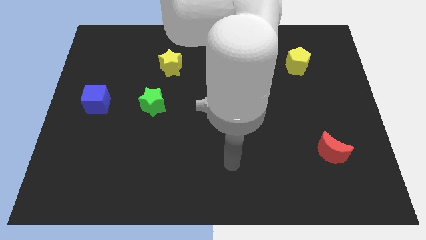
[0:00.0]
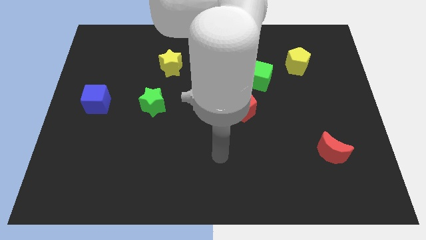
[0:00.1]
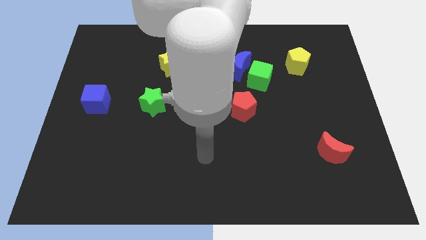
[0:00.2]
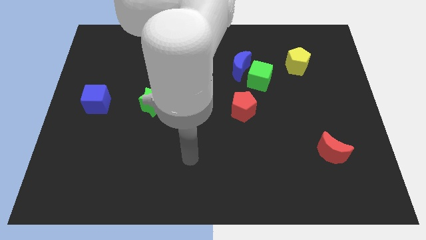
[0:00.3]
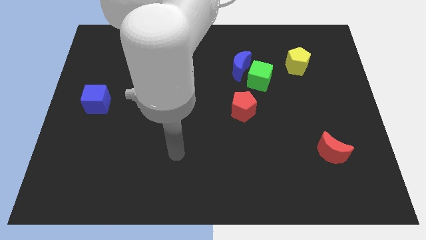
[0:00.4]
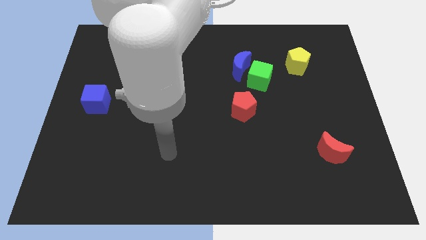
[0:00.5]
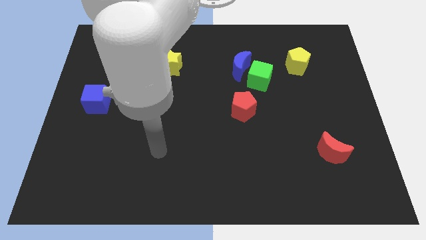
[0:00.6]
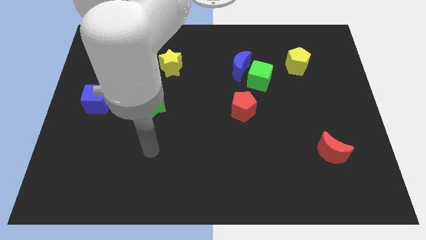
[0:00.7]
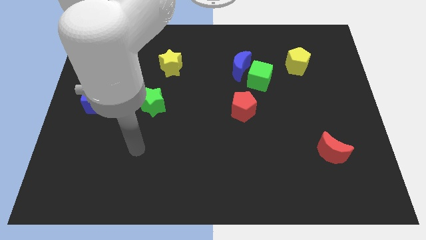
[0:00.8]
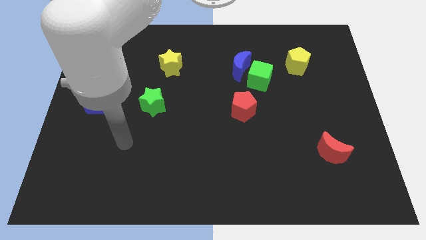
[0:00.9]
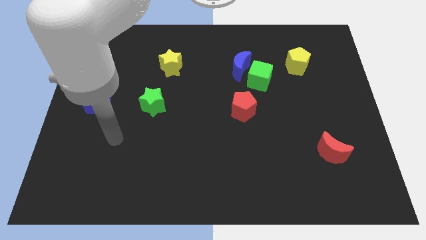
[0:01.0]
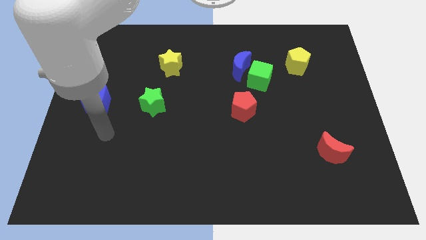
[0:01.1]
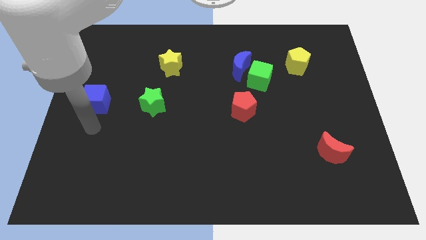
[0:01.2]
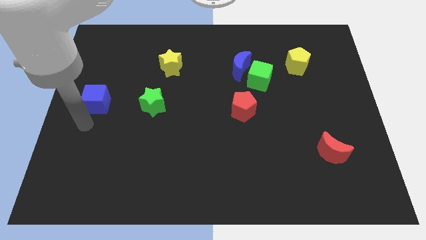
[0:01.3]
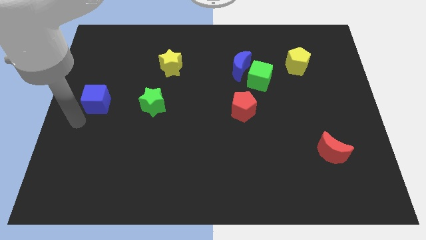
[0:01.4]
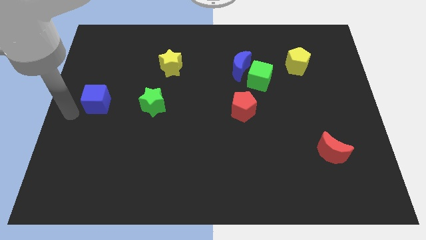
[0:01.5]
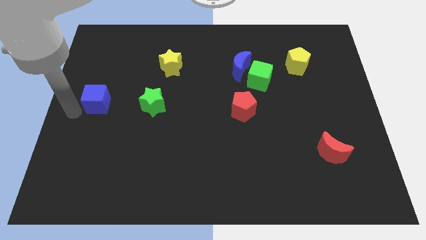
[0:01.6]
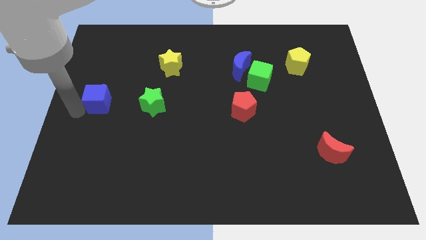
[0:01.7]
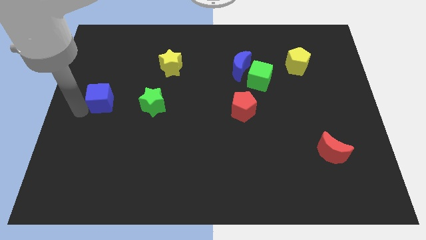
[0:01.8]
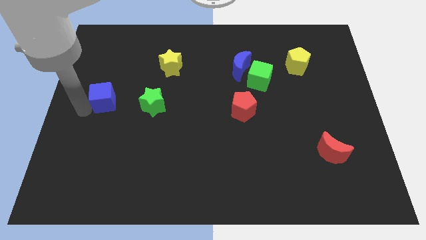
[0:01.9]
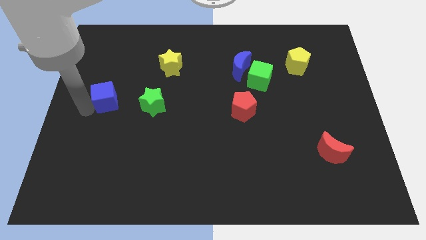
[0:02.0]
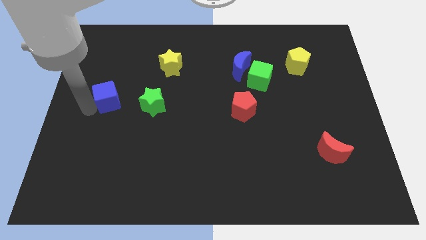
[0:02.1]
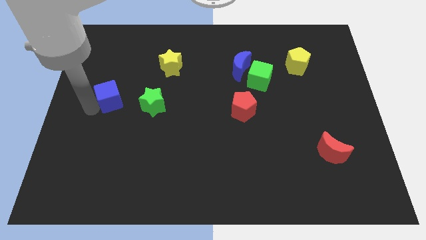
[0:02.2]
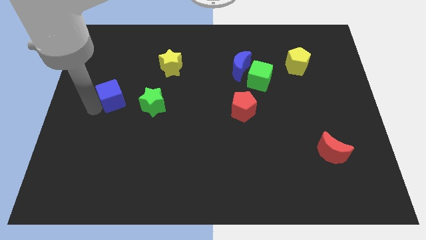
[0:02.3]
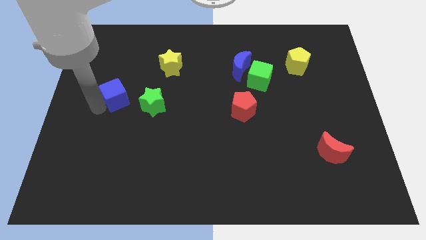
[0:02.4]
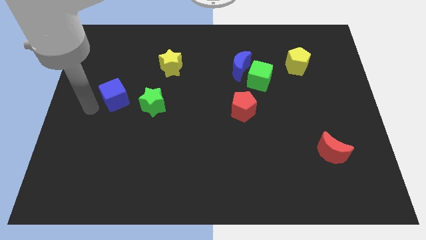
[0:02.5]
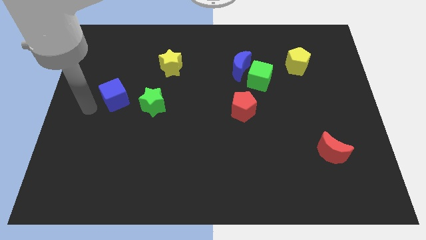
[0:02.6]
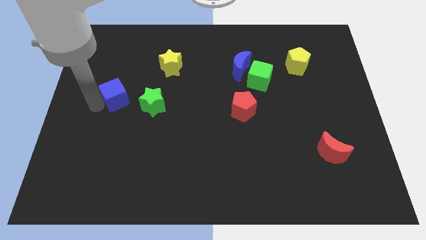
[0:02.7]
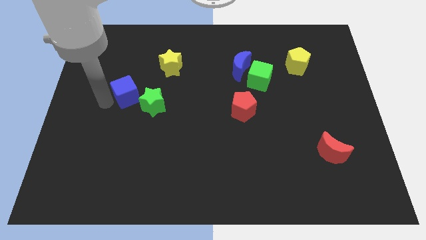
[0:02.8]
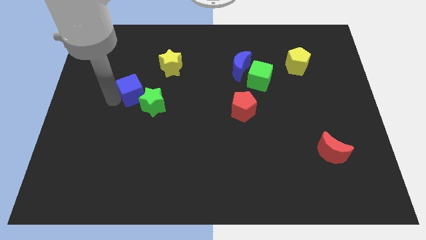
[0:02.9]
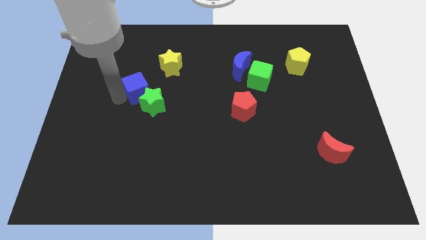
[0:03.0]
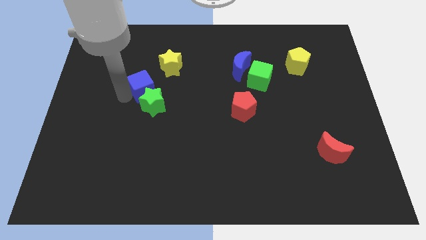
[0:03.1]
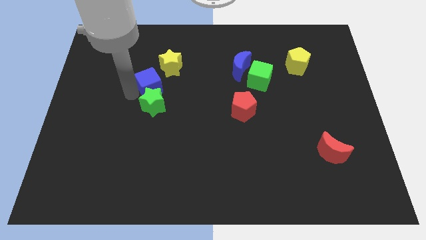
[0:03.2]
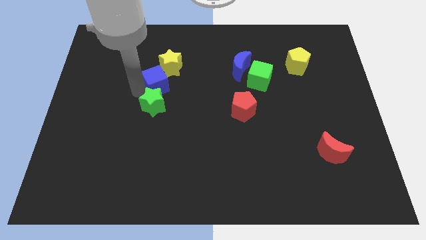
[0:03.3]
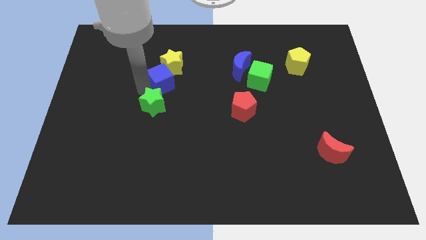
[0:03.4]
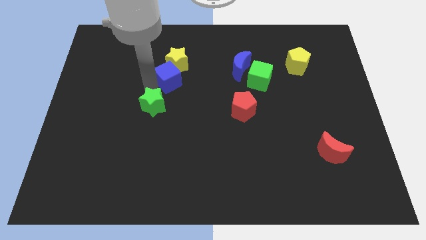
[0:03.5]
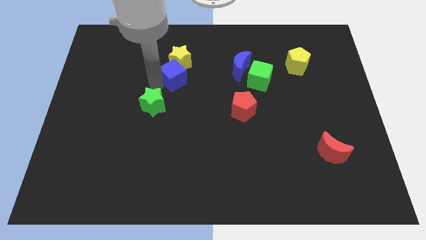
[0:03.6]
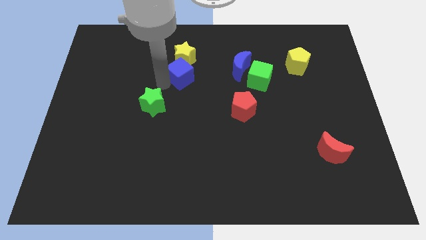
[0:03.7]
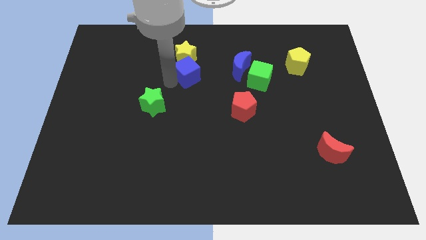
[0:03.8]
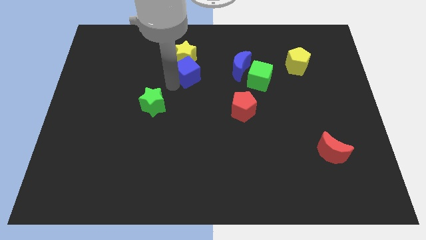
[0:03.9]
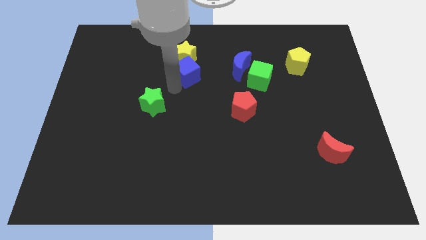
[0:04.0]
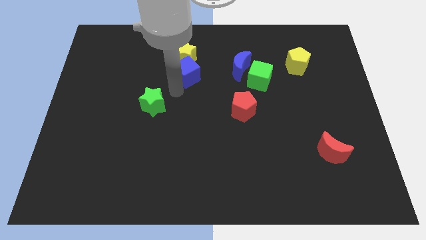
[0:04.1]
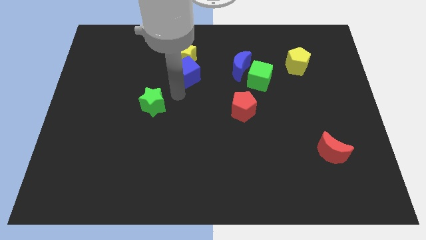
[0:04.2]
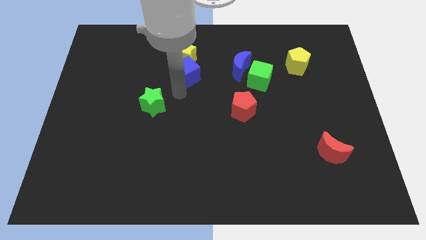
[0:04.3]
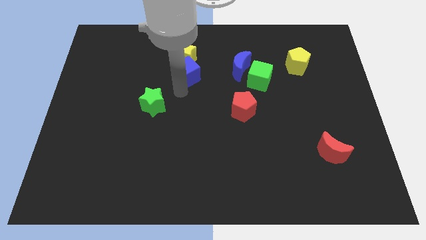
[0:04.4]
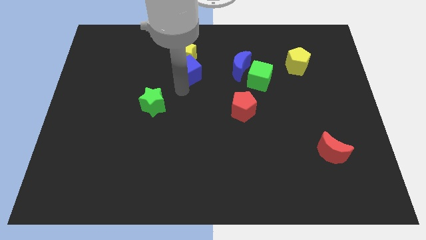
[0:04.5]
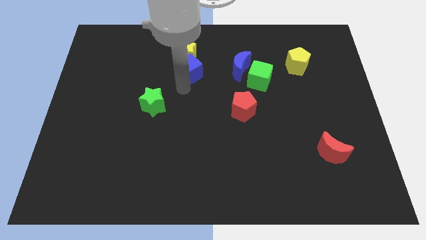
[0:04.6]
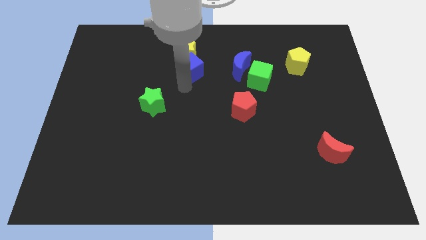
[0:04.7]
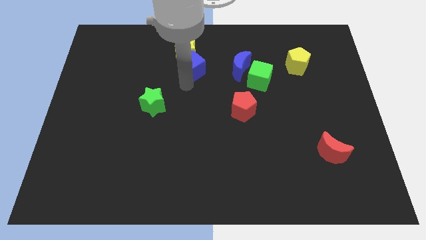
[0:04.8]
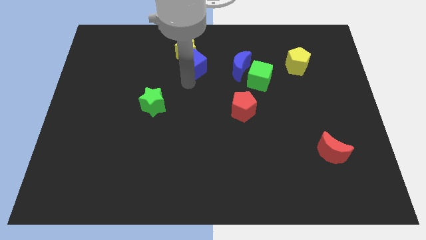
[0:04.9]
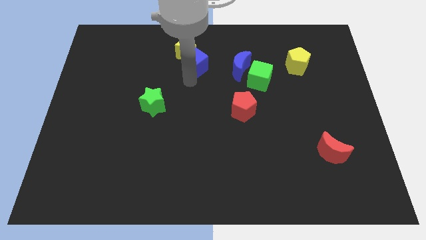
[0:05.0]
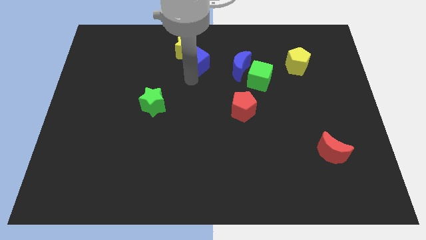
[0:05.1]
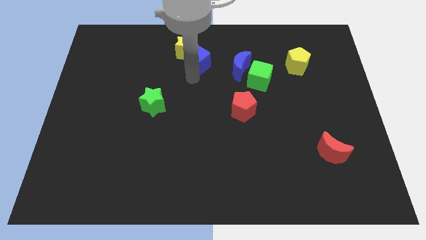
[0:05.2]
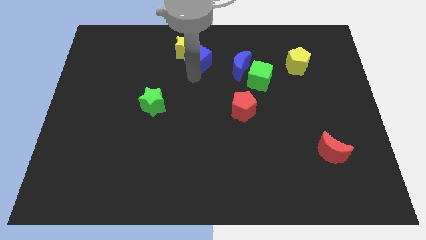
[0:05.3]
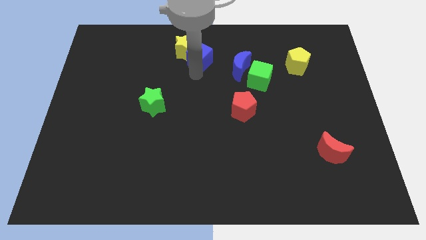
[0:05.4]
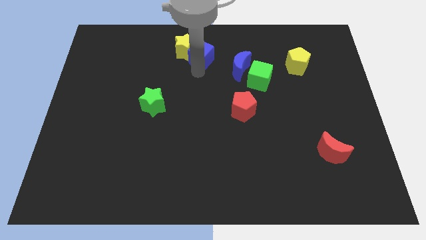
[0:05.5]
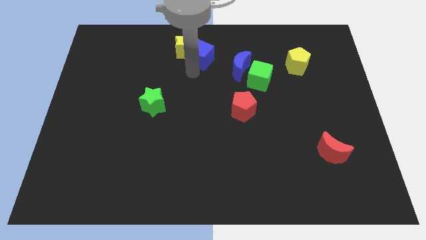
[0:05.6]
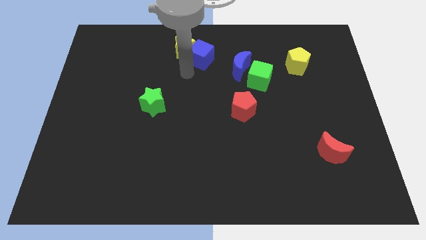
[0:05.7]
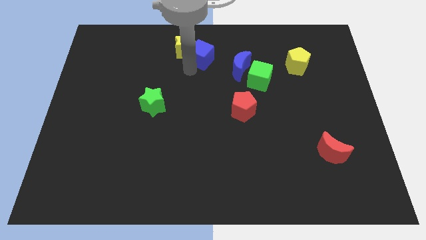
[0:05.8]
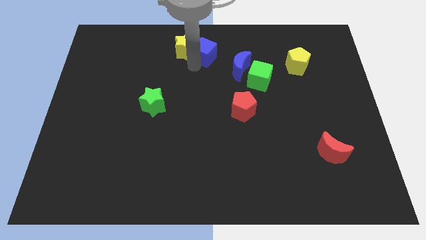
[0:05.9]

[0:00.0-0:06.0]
slide the blue cube to the top side

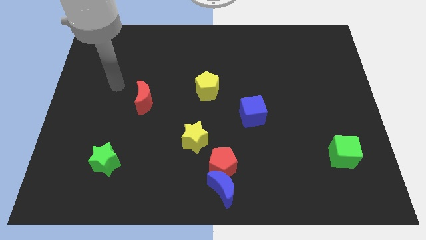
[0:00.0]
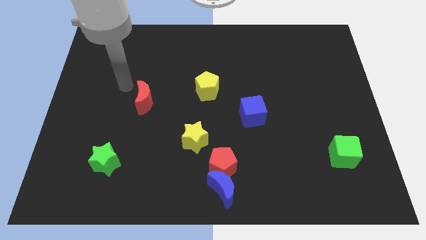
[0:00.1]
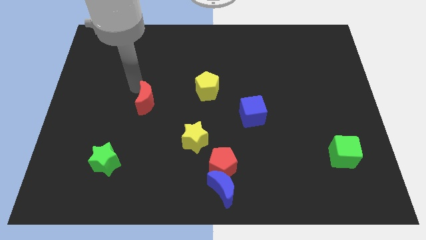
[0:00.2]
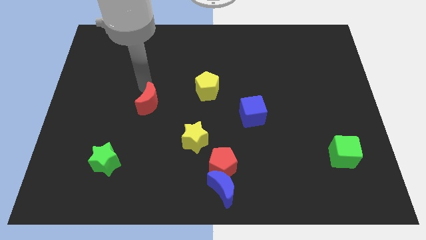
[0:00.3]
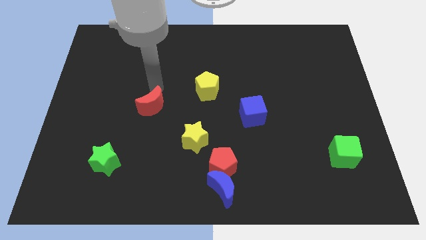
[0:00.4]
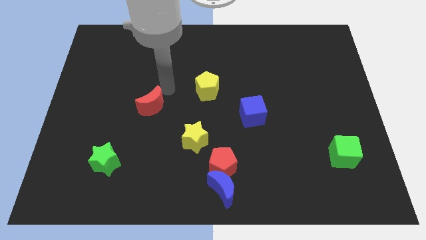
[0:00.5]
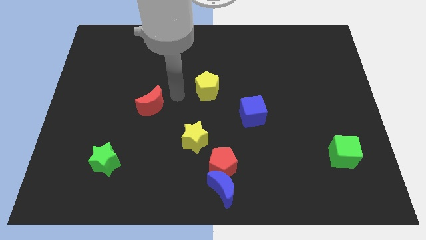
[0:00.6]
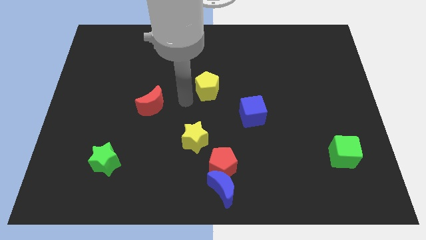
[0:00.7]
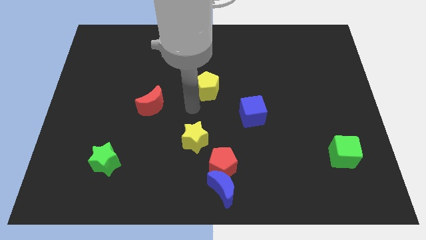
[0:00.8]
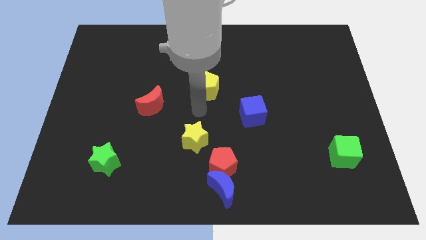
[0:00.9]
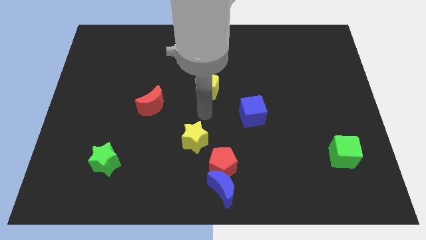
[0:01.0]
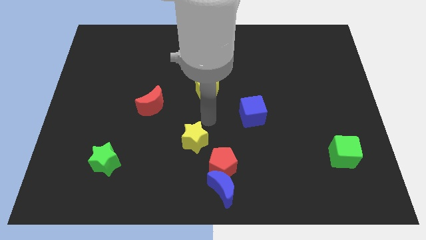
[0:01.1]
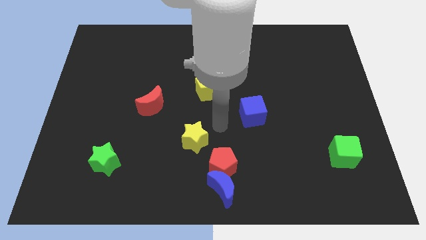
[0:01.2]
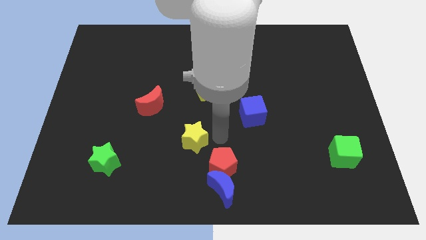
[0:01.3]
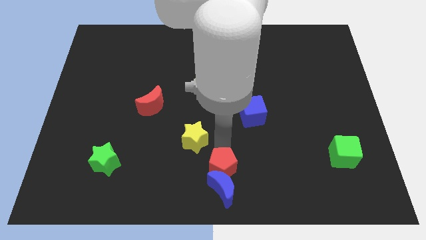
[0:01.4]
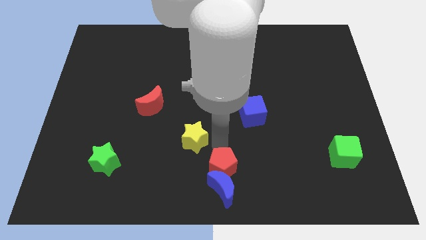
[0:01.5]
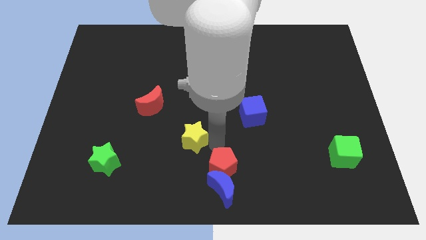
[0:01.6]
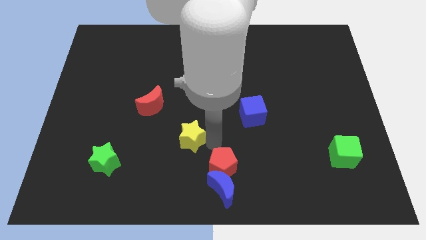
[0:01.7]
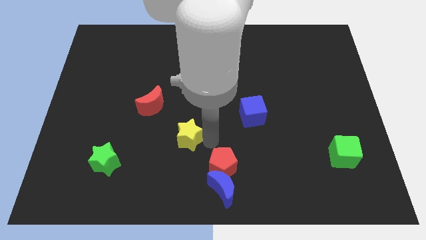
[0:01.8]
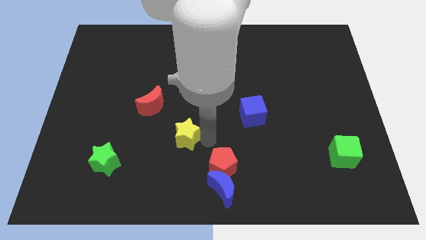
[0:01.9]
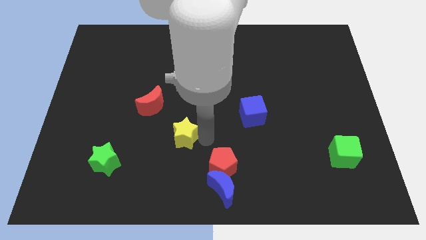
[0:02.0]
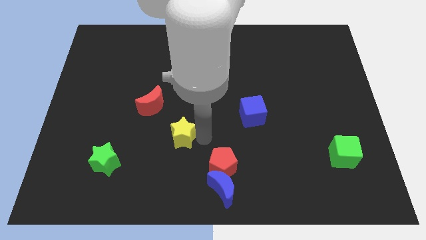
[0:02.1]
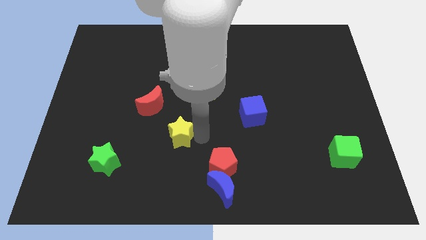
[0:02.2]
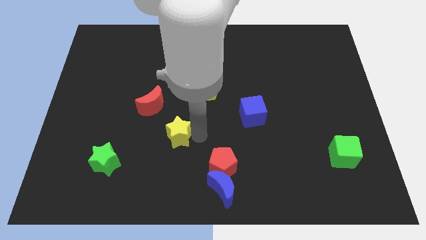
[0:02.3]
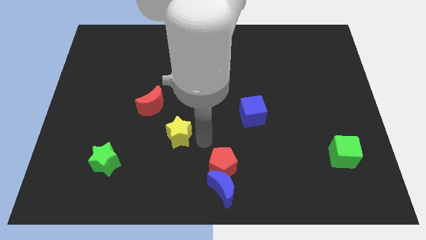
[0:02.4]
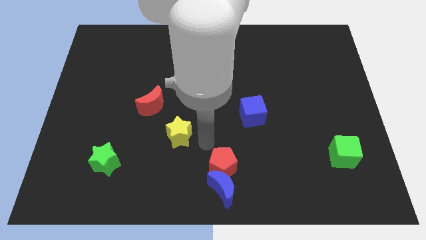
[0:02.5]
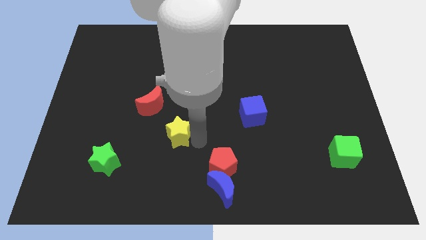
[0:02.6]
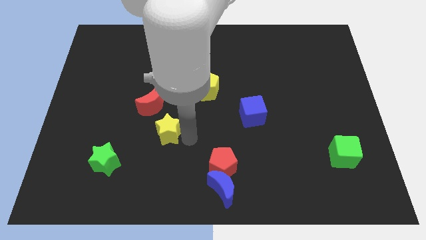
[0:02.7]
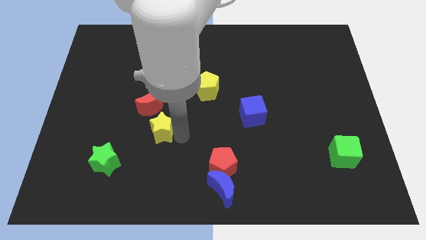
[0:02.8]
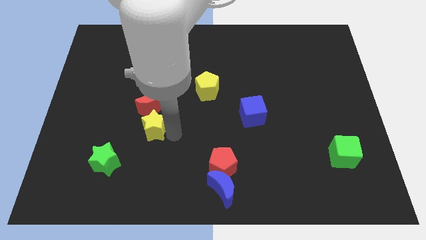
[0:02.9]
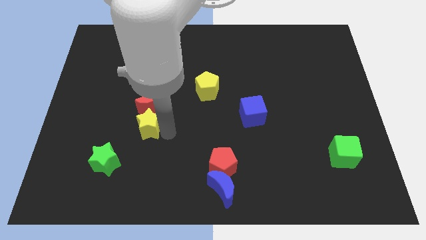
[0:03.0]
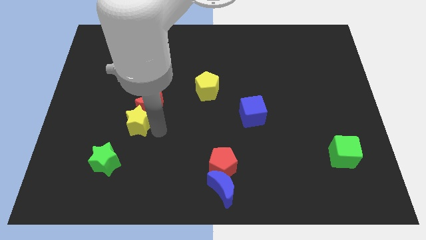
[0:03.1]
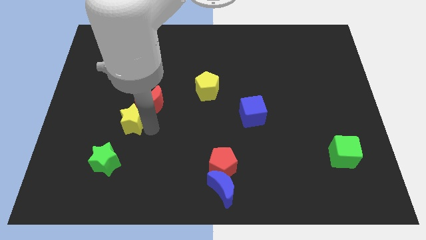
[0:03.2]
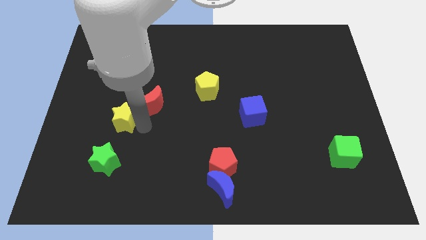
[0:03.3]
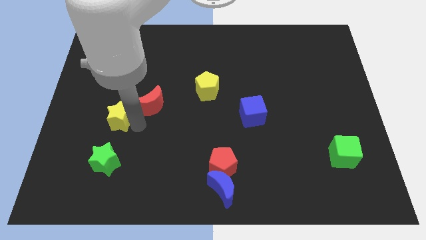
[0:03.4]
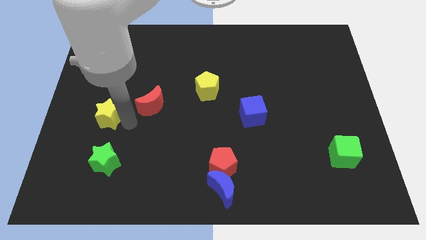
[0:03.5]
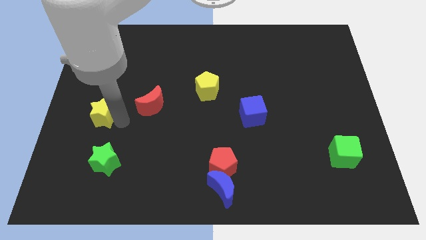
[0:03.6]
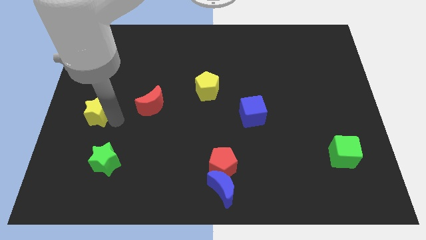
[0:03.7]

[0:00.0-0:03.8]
put the yellow star to the center left
